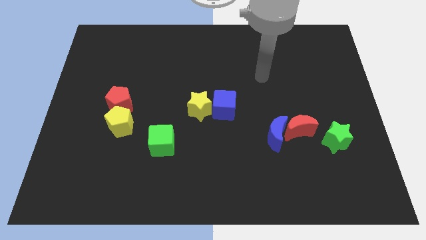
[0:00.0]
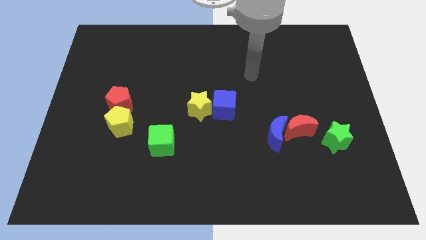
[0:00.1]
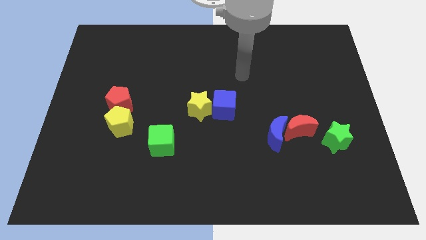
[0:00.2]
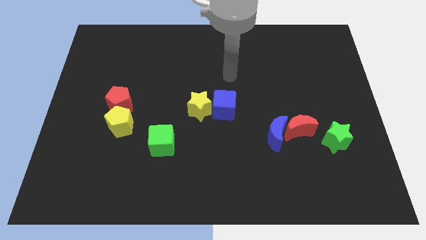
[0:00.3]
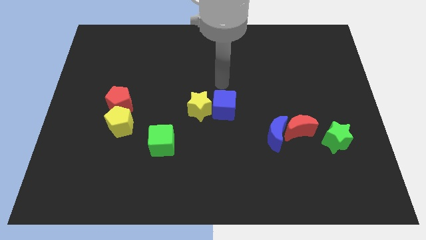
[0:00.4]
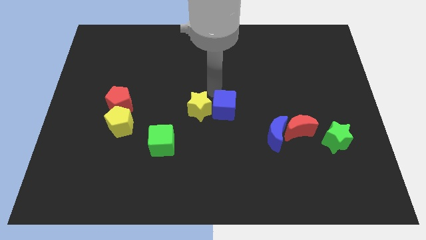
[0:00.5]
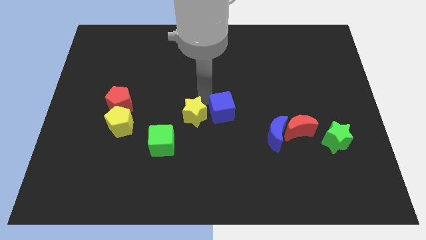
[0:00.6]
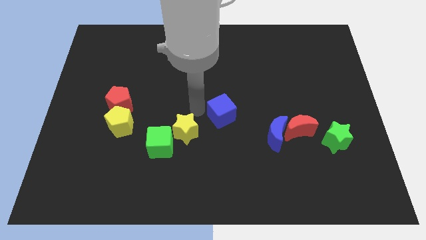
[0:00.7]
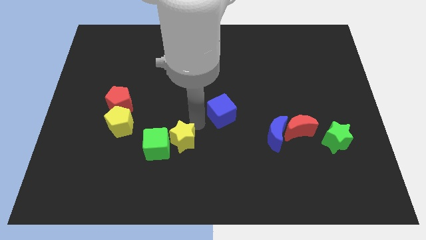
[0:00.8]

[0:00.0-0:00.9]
move the blue cube away from the yellow star

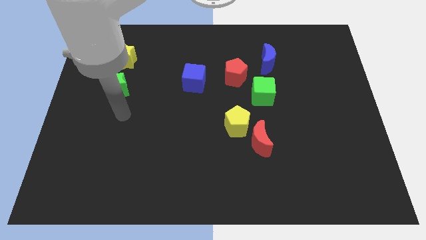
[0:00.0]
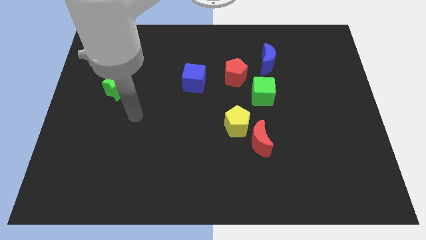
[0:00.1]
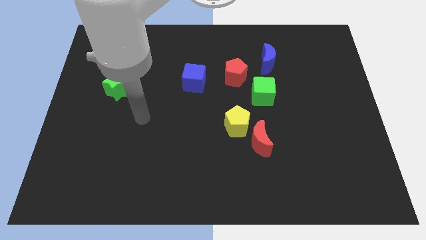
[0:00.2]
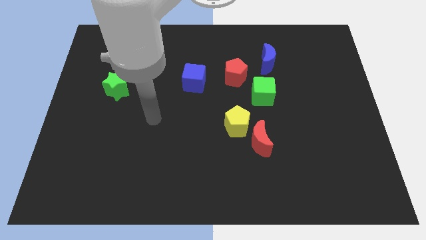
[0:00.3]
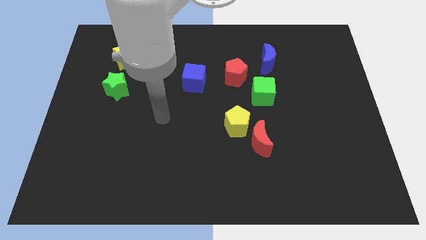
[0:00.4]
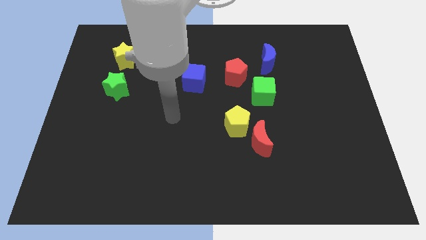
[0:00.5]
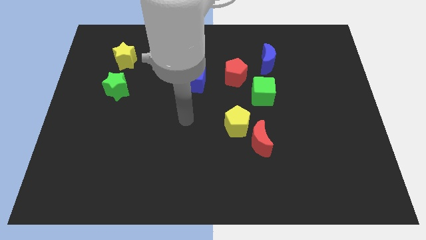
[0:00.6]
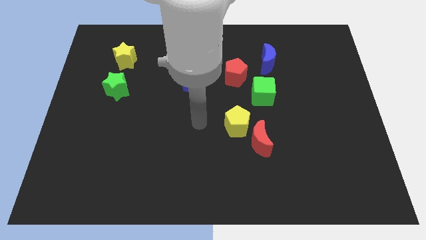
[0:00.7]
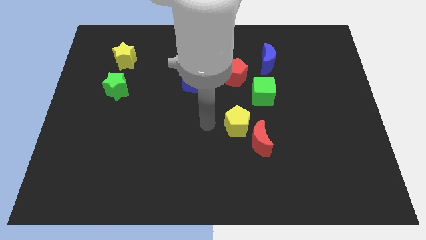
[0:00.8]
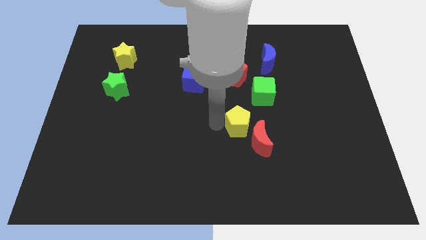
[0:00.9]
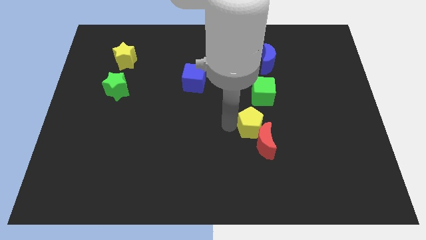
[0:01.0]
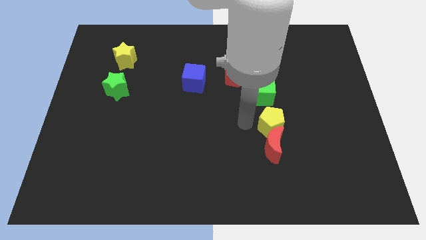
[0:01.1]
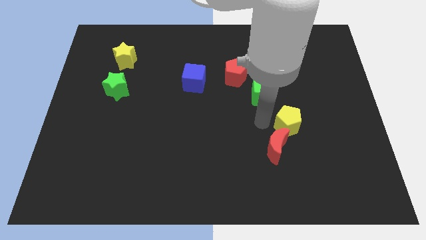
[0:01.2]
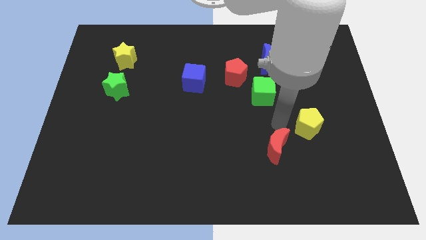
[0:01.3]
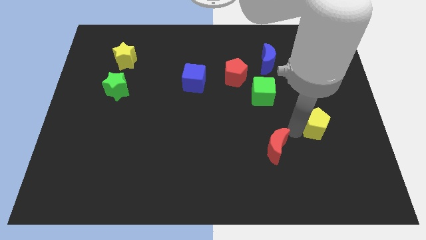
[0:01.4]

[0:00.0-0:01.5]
pull the red moon apart from the yellow pentagon

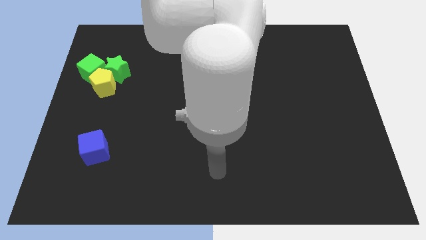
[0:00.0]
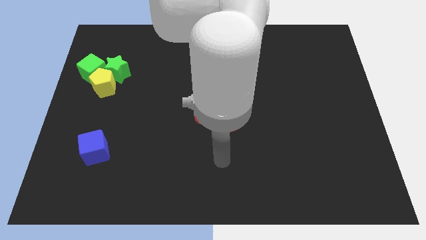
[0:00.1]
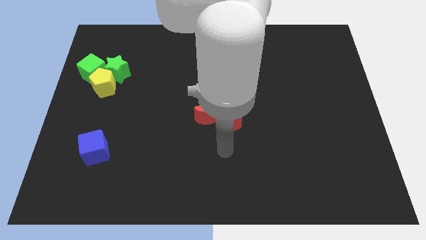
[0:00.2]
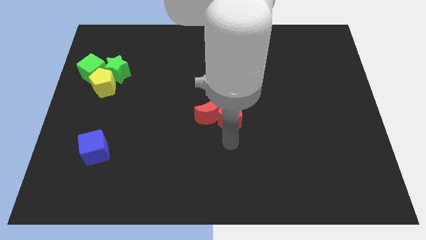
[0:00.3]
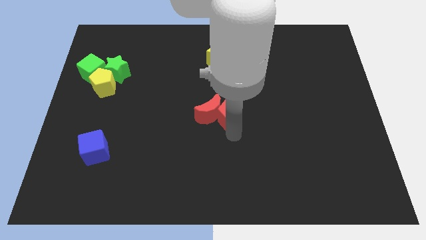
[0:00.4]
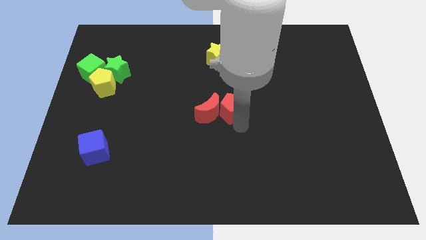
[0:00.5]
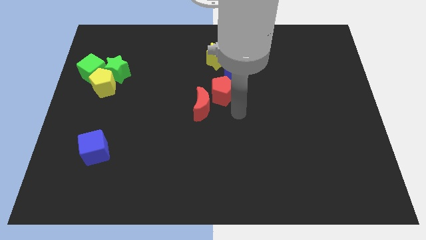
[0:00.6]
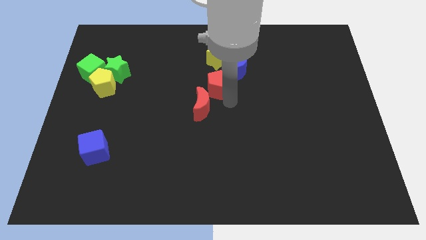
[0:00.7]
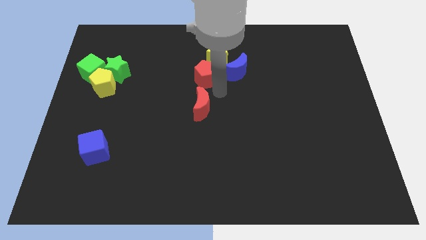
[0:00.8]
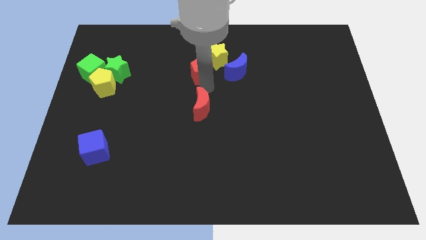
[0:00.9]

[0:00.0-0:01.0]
separate the red moon from the red pentagon

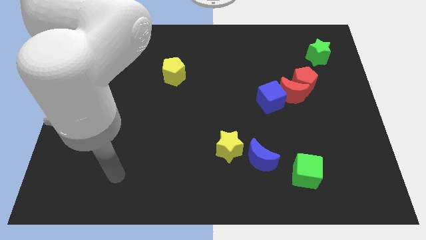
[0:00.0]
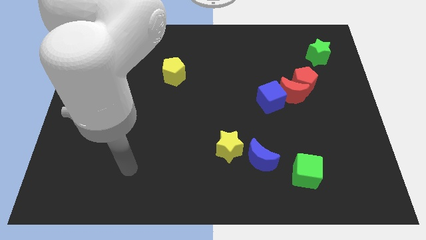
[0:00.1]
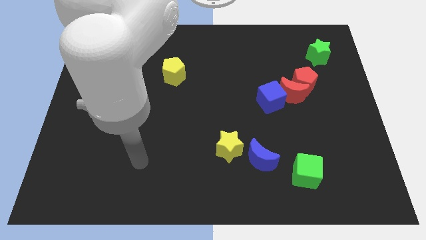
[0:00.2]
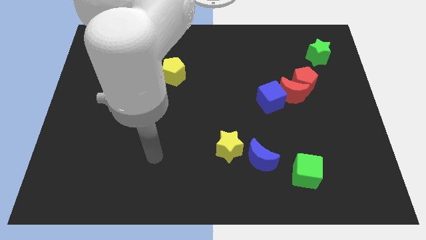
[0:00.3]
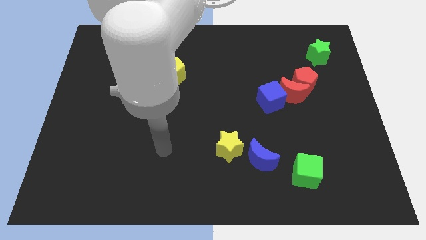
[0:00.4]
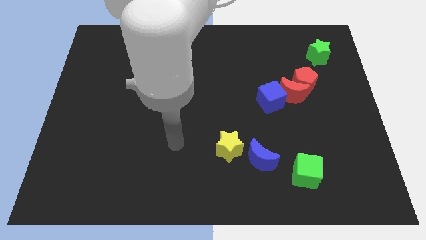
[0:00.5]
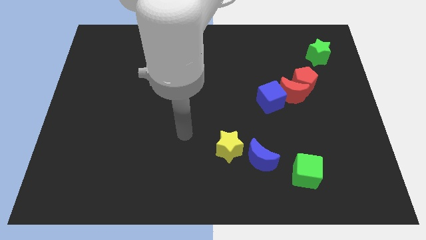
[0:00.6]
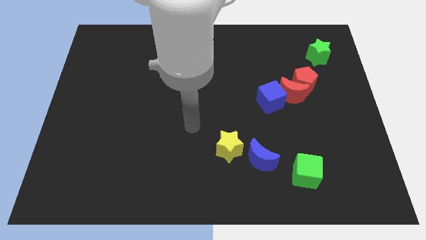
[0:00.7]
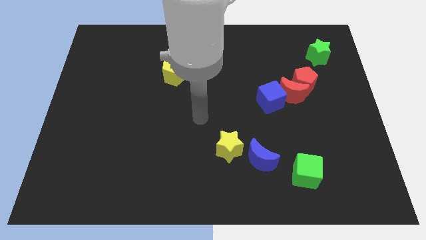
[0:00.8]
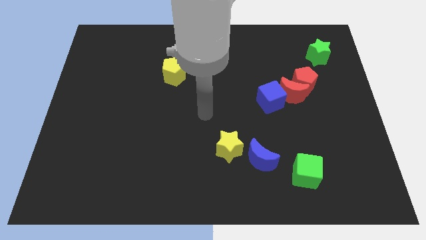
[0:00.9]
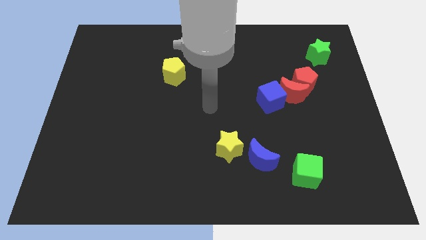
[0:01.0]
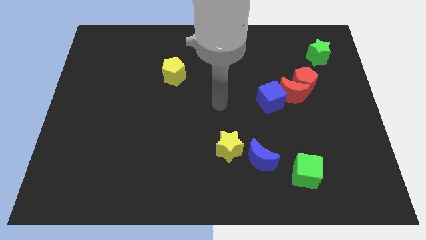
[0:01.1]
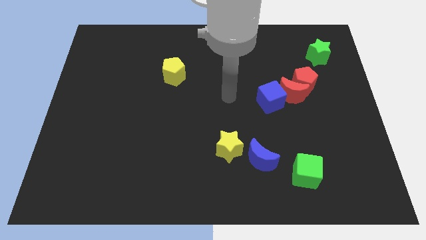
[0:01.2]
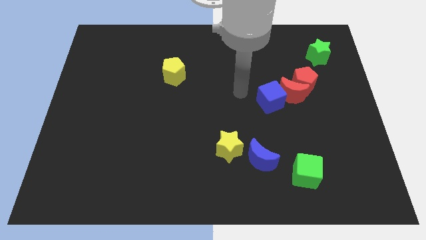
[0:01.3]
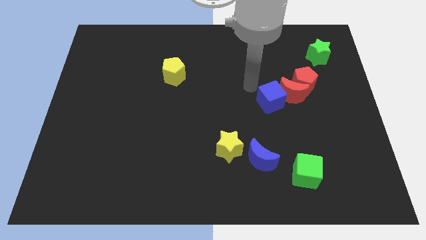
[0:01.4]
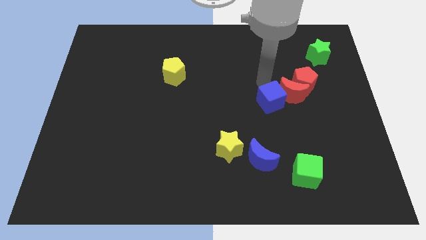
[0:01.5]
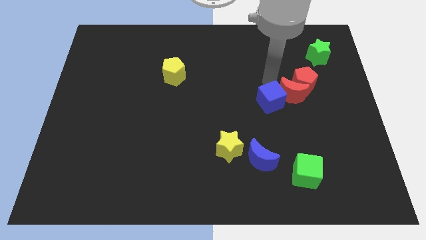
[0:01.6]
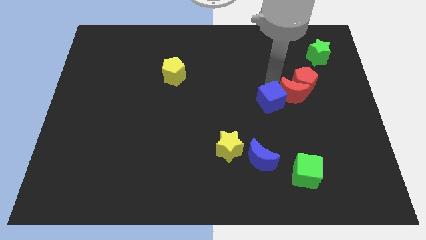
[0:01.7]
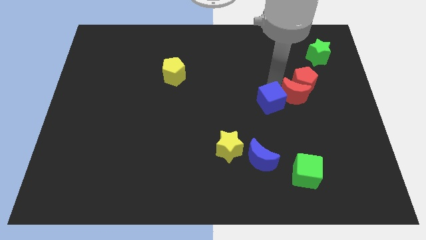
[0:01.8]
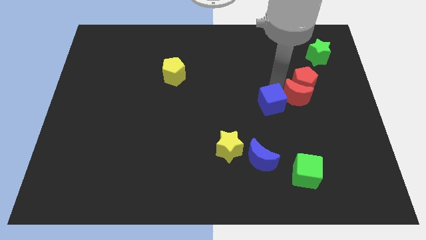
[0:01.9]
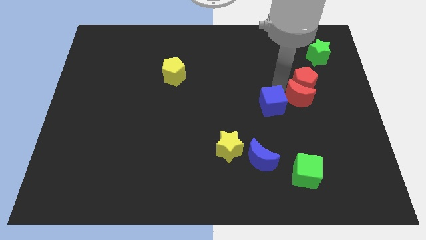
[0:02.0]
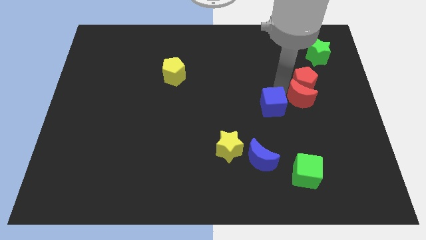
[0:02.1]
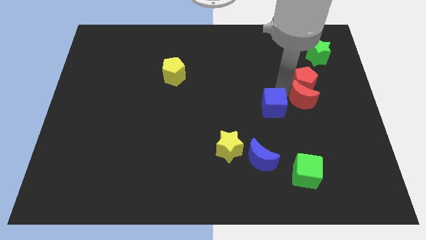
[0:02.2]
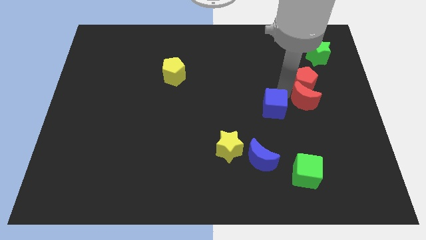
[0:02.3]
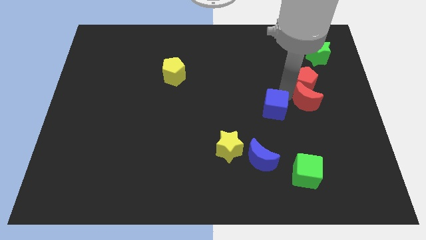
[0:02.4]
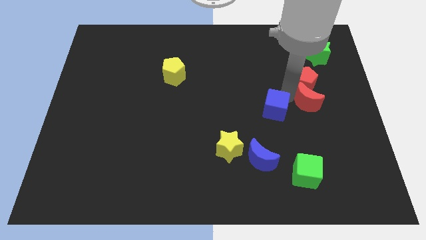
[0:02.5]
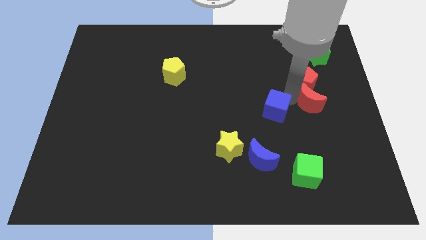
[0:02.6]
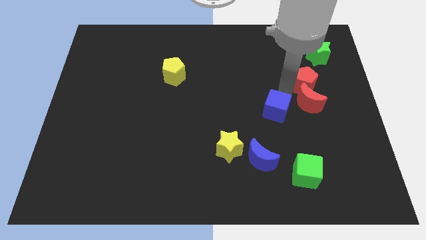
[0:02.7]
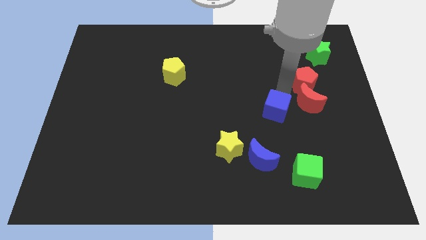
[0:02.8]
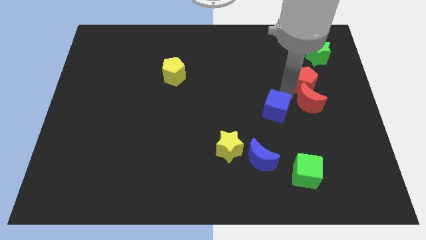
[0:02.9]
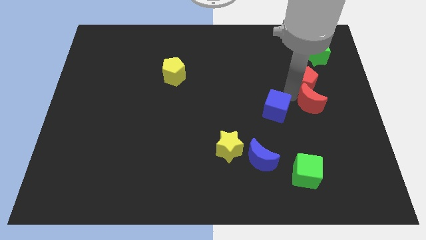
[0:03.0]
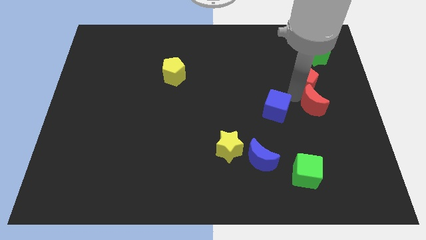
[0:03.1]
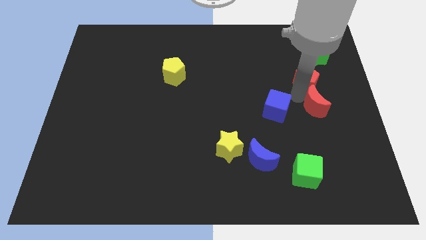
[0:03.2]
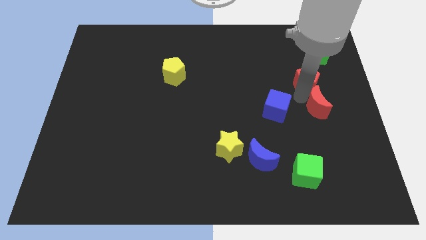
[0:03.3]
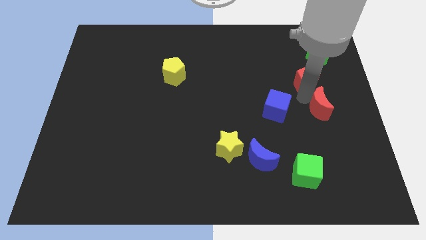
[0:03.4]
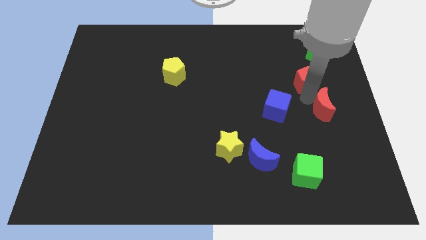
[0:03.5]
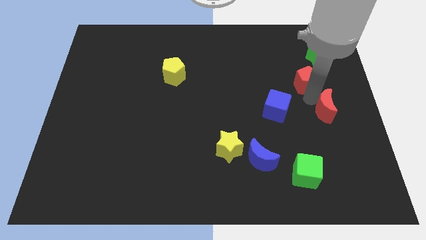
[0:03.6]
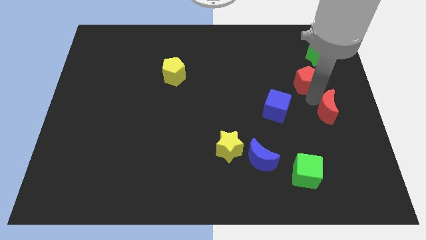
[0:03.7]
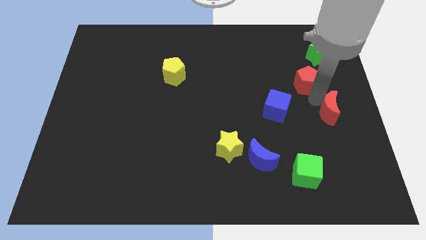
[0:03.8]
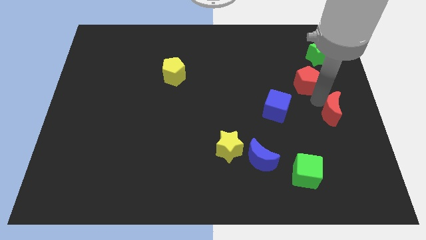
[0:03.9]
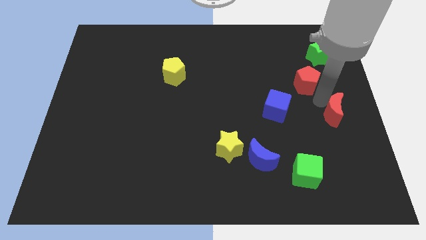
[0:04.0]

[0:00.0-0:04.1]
separate the red moon from the red pentagon and blue cube

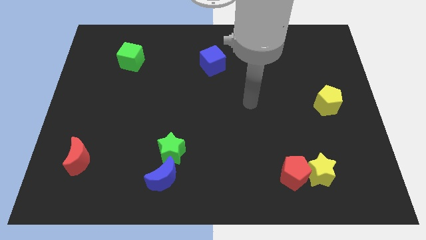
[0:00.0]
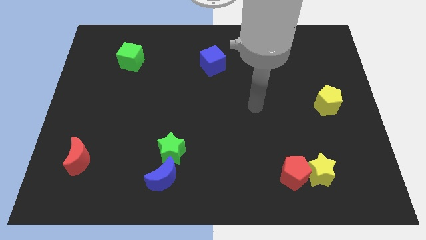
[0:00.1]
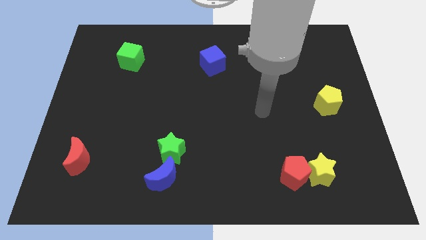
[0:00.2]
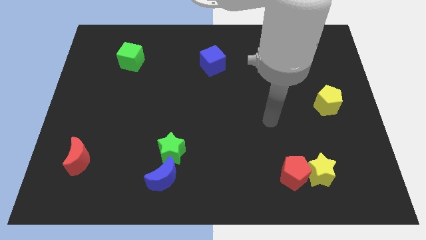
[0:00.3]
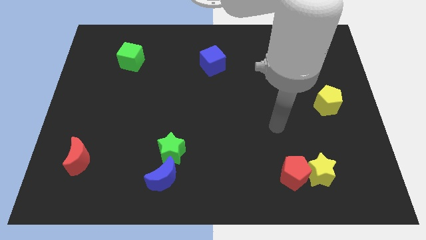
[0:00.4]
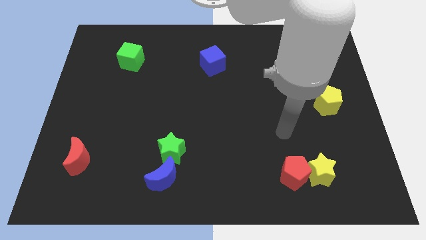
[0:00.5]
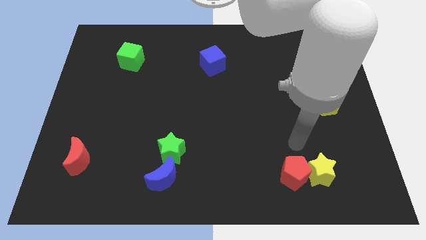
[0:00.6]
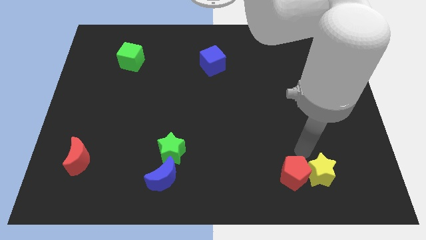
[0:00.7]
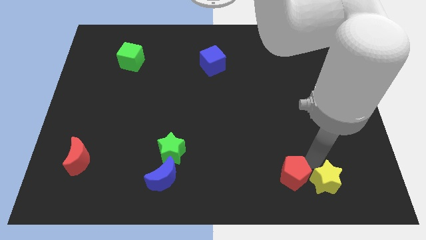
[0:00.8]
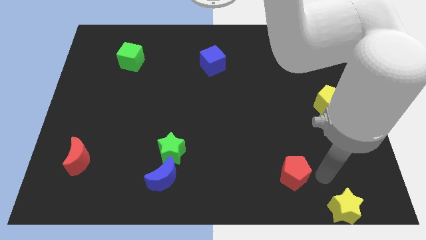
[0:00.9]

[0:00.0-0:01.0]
separate the red pentagon from the yellow star

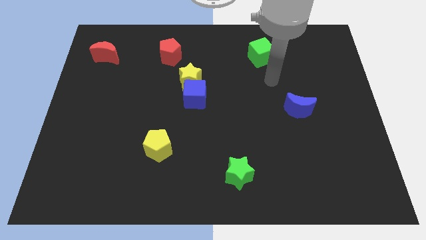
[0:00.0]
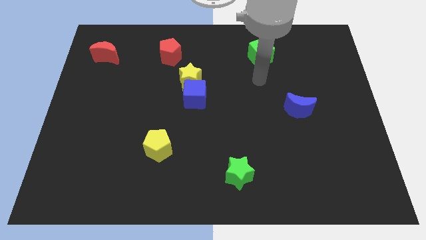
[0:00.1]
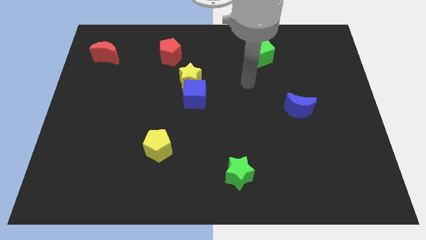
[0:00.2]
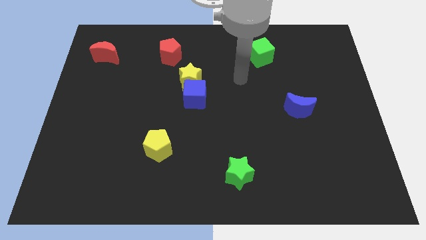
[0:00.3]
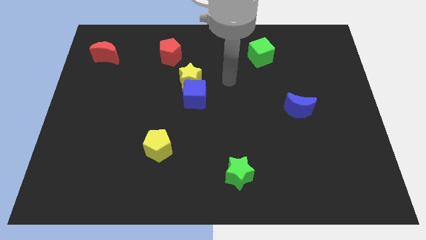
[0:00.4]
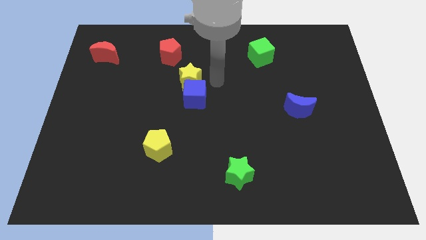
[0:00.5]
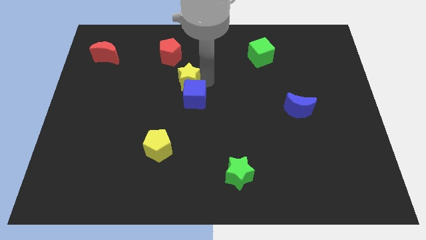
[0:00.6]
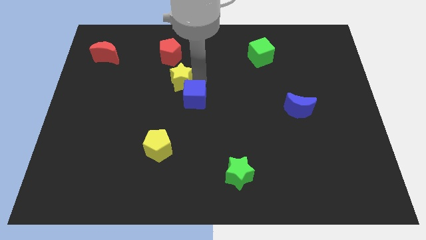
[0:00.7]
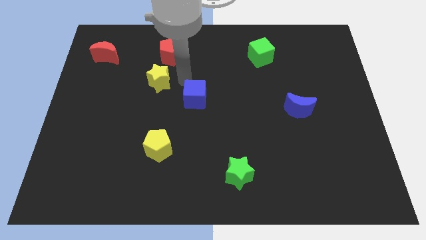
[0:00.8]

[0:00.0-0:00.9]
separate the blue cube from the yellow star
